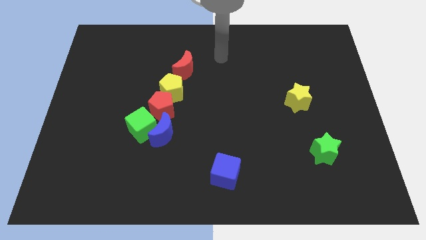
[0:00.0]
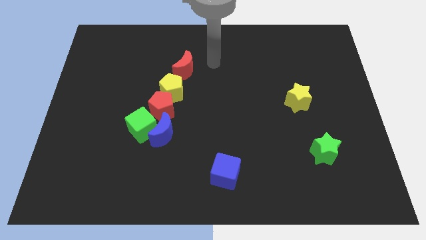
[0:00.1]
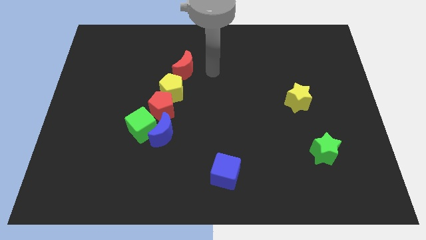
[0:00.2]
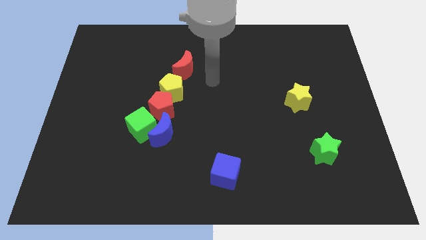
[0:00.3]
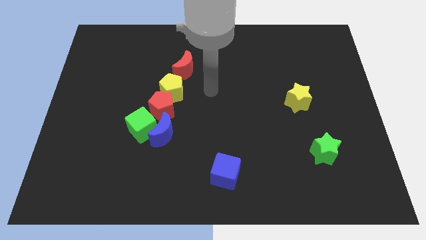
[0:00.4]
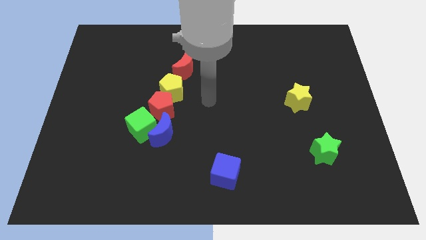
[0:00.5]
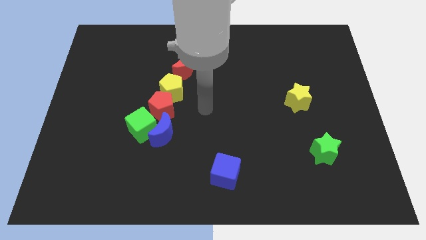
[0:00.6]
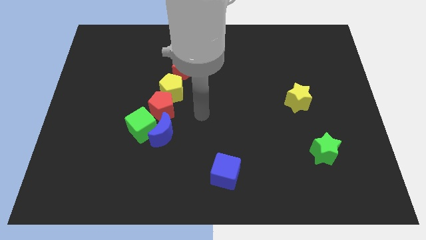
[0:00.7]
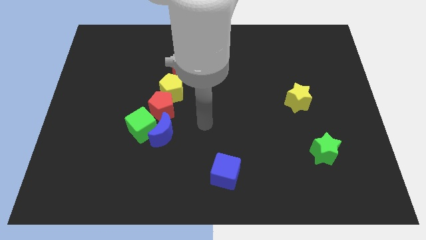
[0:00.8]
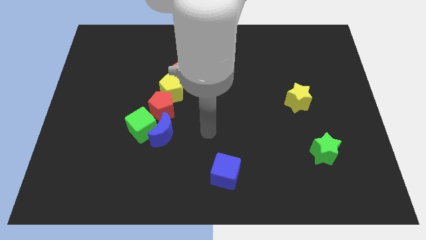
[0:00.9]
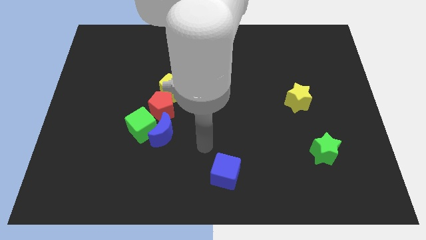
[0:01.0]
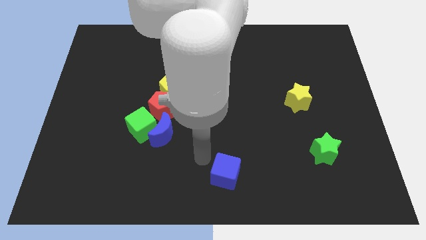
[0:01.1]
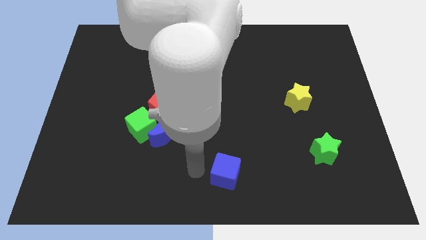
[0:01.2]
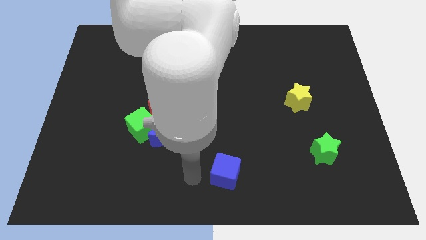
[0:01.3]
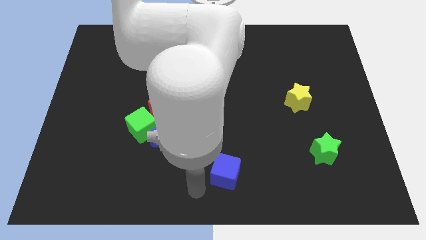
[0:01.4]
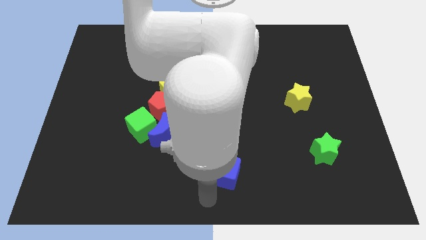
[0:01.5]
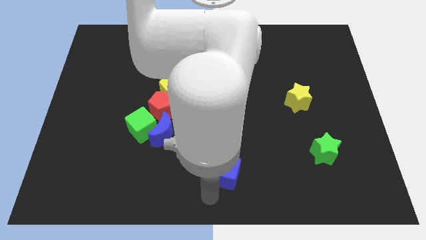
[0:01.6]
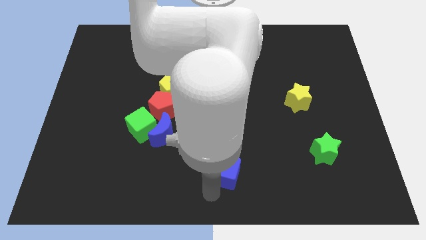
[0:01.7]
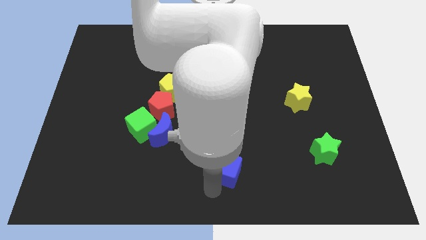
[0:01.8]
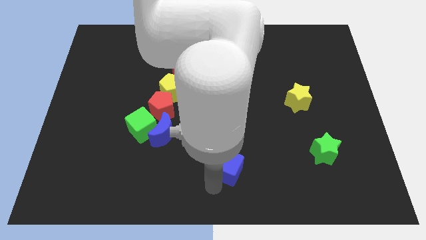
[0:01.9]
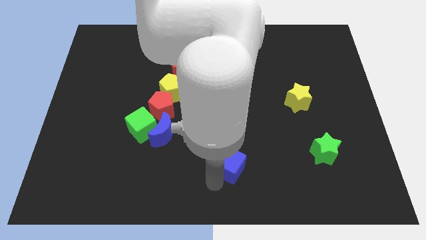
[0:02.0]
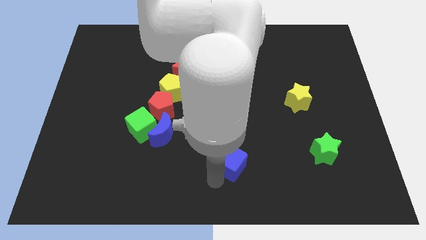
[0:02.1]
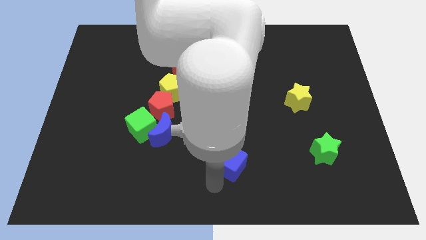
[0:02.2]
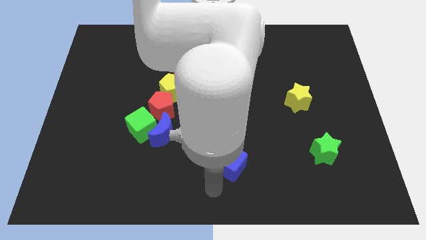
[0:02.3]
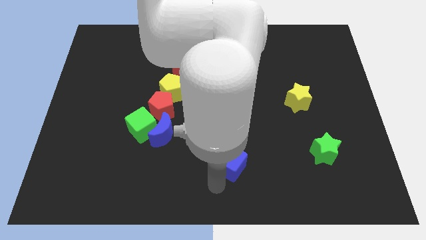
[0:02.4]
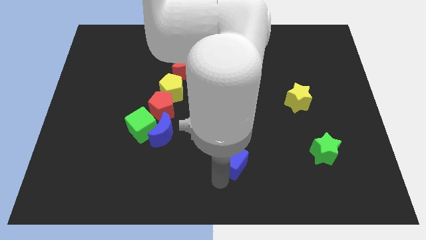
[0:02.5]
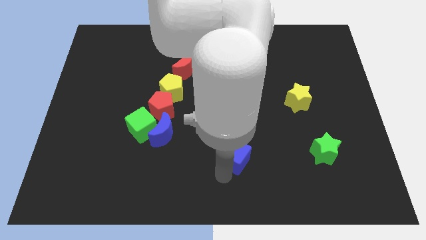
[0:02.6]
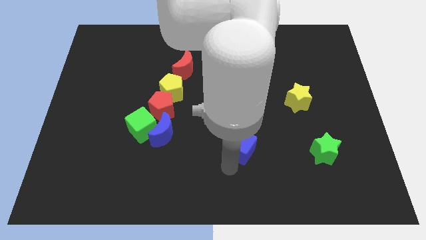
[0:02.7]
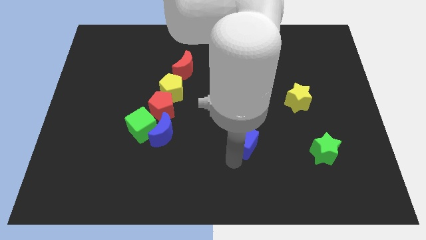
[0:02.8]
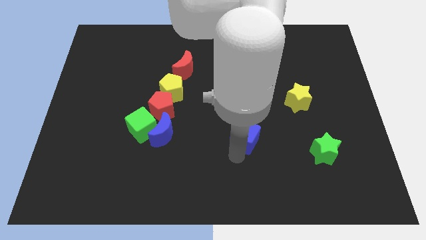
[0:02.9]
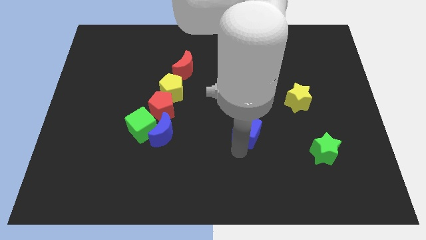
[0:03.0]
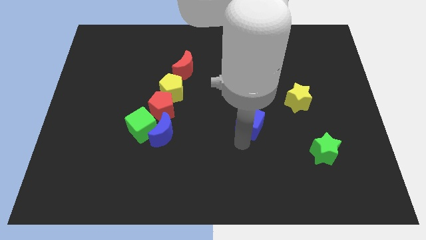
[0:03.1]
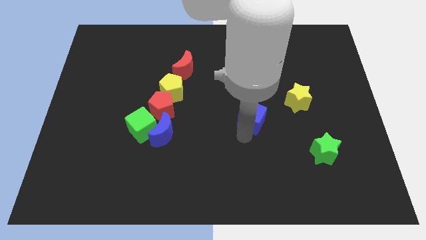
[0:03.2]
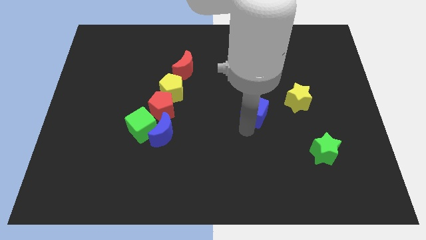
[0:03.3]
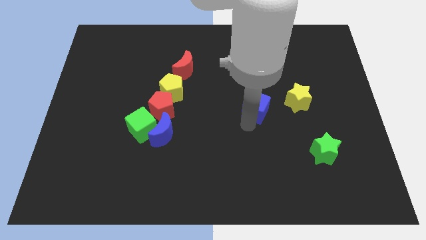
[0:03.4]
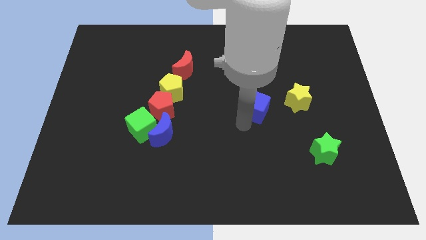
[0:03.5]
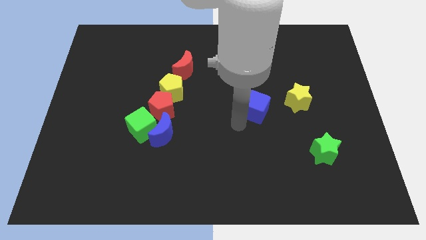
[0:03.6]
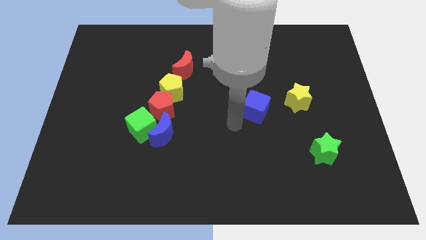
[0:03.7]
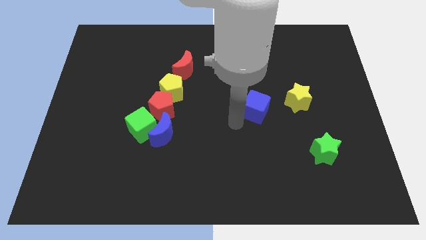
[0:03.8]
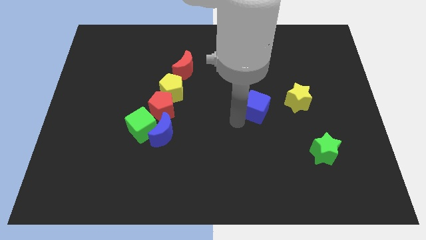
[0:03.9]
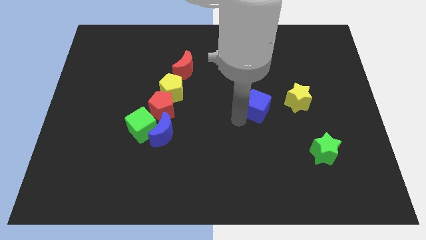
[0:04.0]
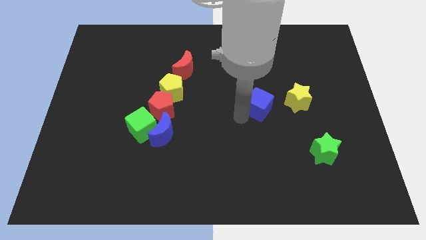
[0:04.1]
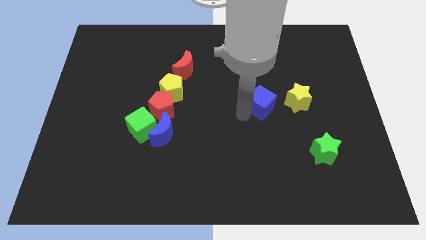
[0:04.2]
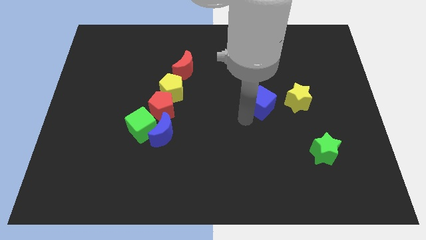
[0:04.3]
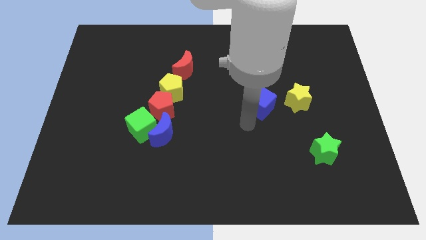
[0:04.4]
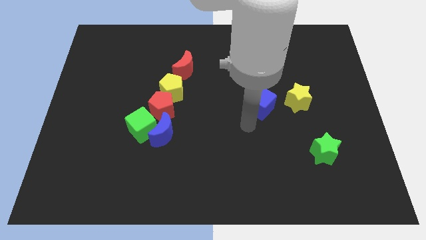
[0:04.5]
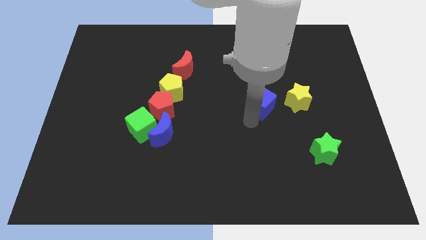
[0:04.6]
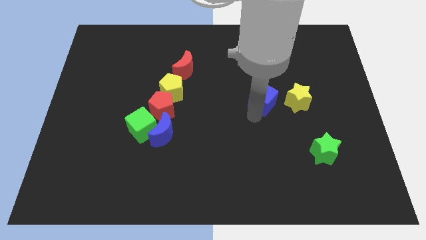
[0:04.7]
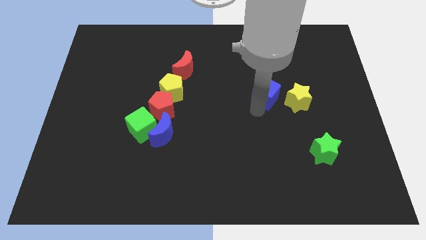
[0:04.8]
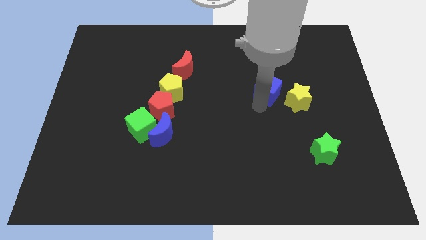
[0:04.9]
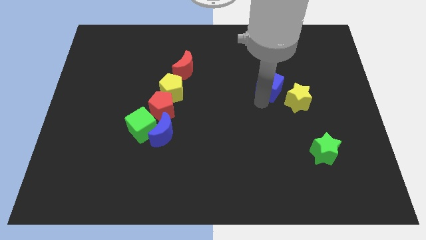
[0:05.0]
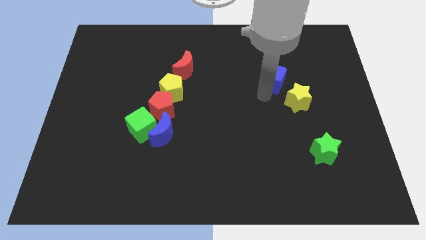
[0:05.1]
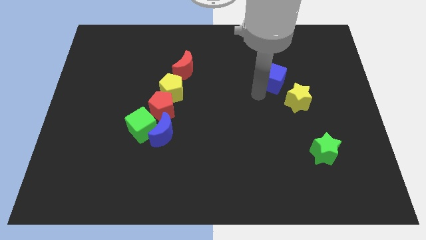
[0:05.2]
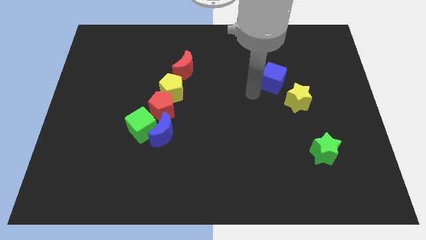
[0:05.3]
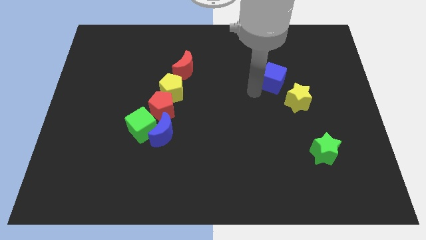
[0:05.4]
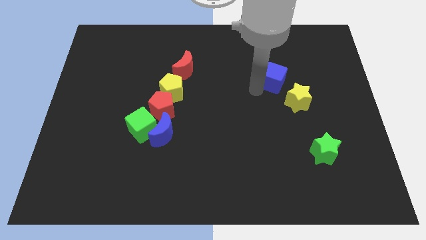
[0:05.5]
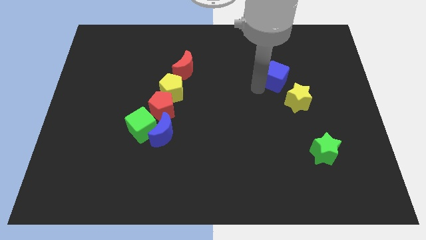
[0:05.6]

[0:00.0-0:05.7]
put the blue cube above the yellow star

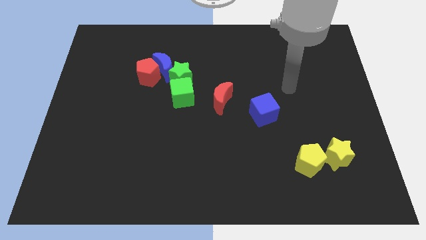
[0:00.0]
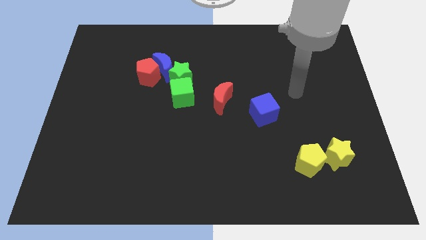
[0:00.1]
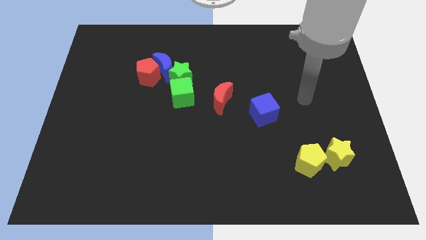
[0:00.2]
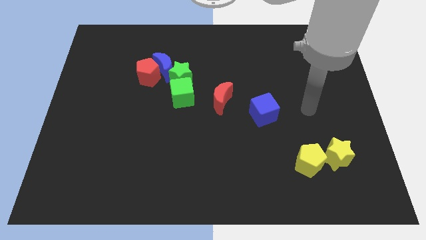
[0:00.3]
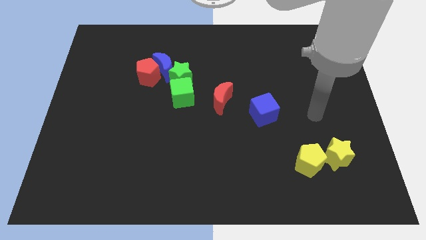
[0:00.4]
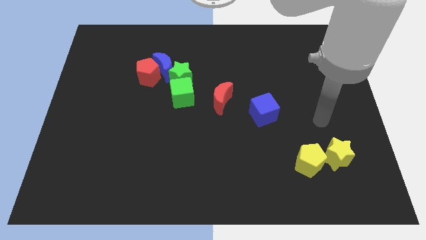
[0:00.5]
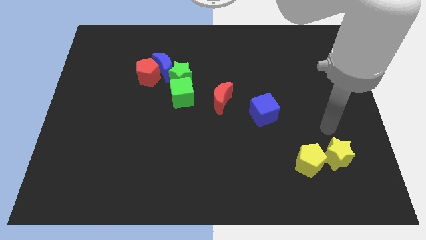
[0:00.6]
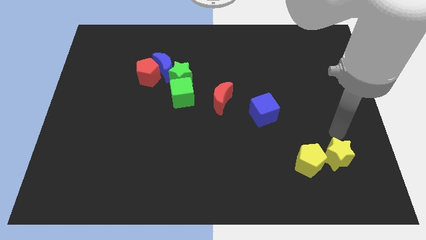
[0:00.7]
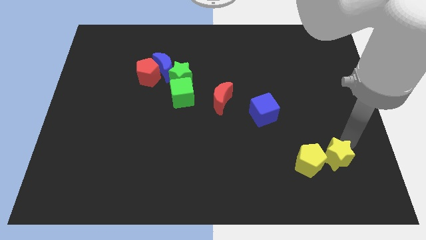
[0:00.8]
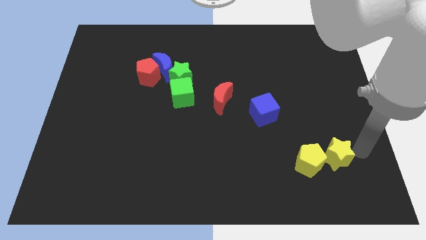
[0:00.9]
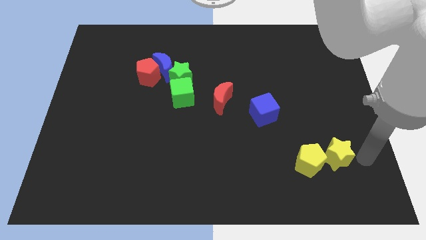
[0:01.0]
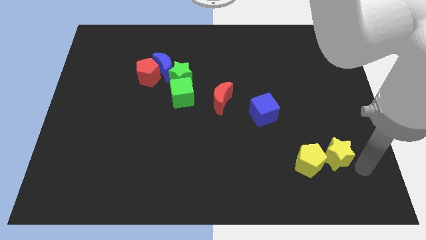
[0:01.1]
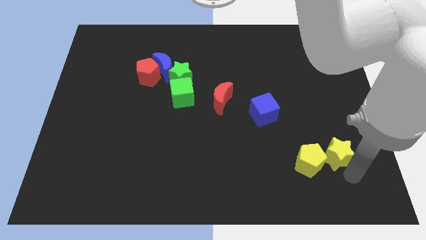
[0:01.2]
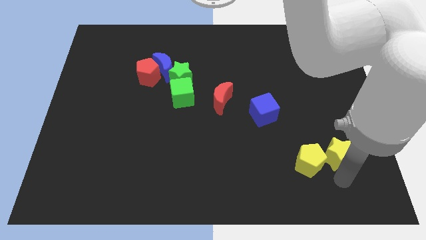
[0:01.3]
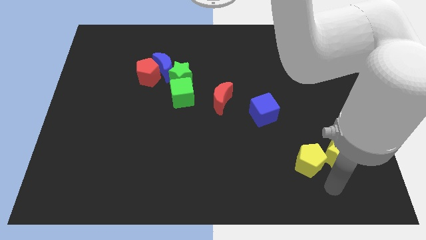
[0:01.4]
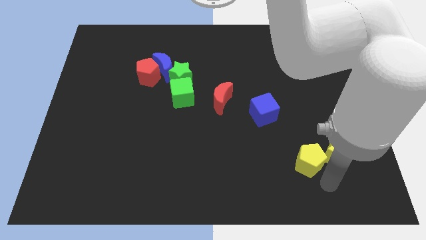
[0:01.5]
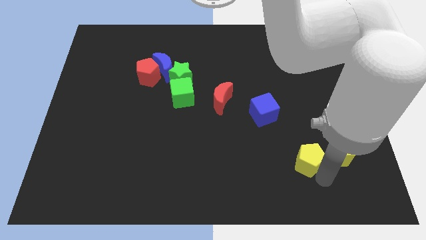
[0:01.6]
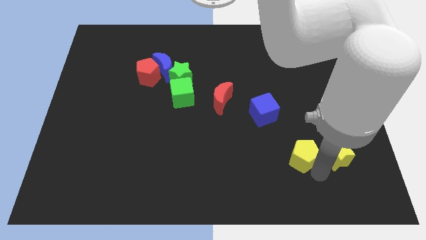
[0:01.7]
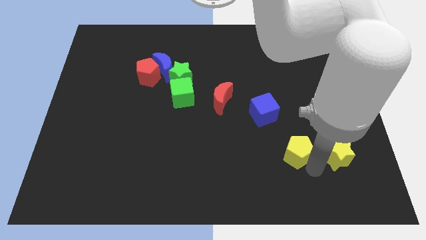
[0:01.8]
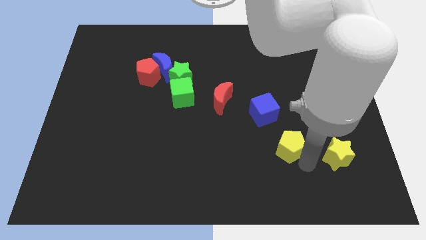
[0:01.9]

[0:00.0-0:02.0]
slide the yellow pentagon to the bottom right side of the blue cube

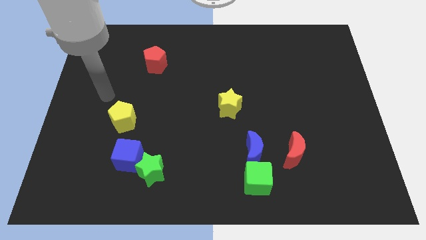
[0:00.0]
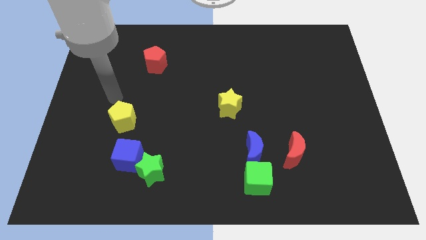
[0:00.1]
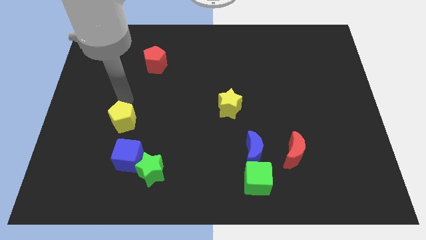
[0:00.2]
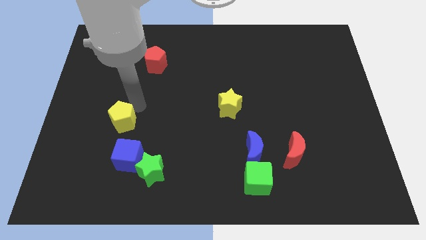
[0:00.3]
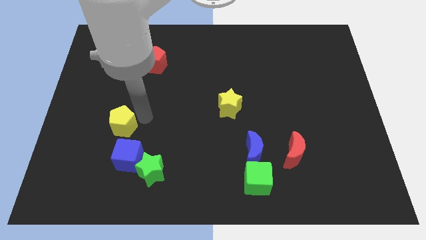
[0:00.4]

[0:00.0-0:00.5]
slide the blue cube to the bottom right of the yellow pentagon
